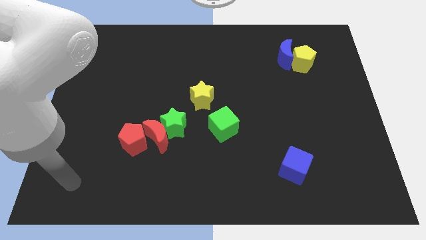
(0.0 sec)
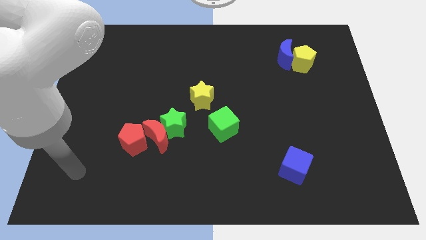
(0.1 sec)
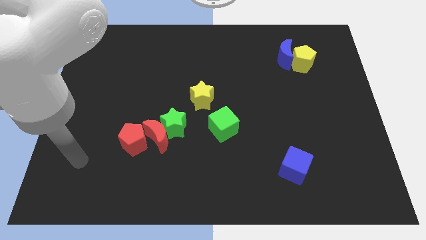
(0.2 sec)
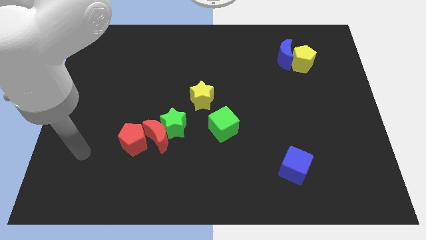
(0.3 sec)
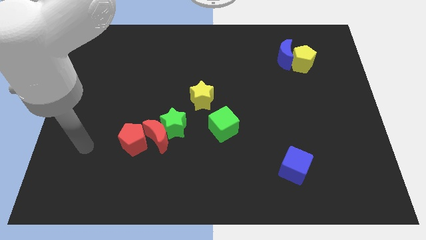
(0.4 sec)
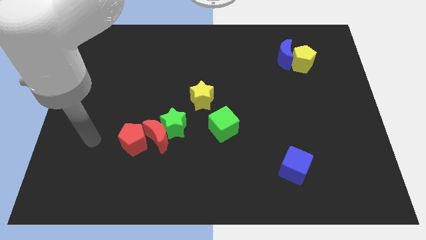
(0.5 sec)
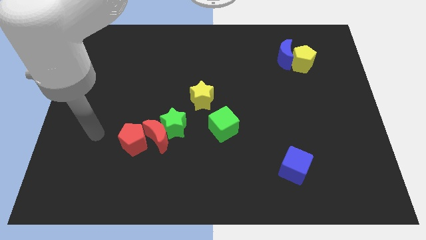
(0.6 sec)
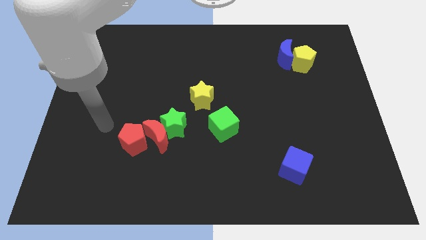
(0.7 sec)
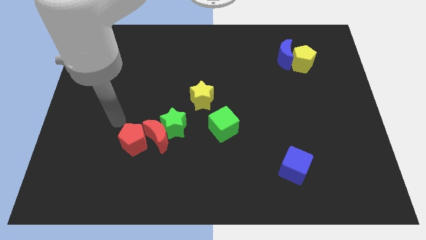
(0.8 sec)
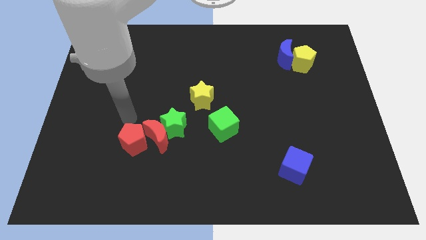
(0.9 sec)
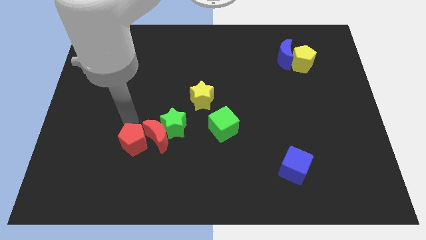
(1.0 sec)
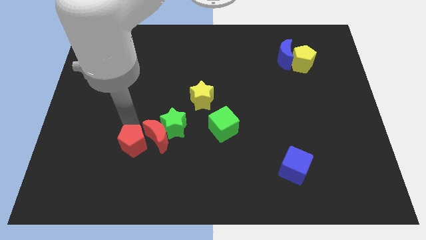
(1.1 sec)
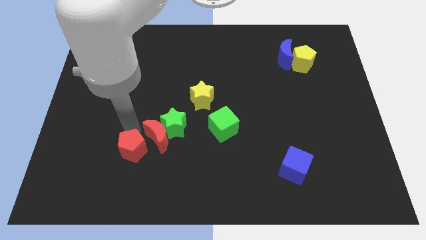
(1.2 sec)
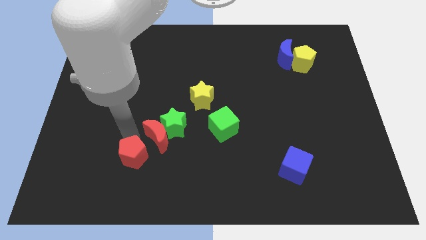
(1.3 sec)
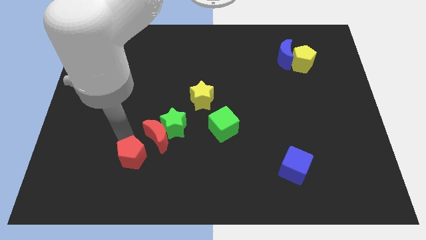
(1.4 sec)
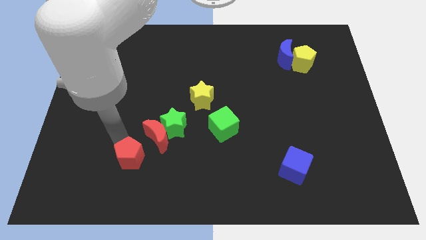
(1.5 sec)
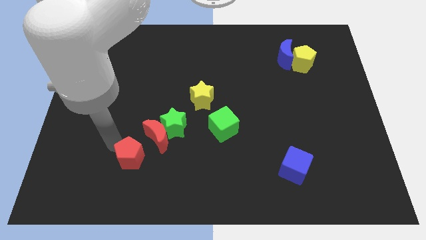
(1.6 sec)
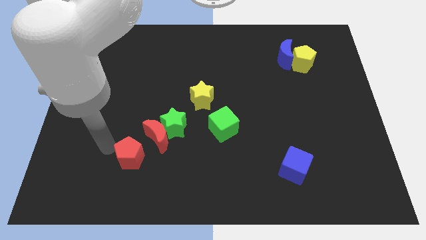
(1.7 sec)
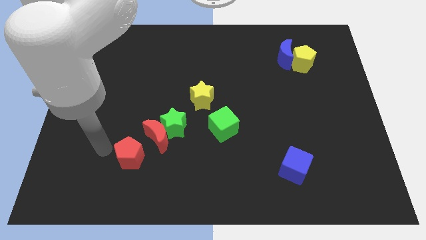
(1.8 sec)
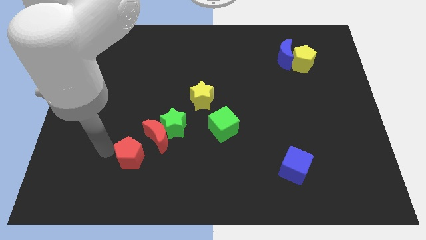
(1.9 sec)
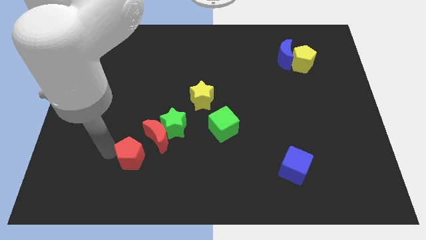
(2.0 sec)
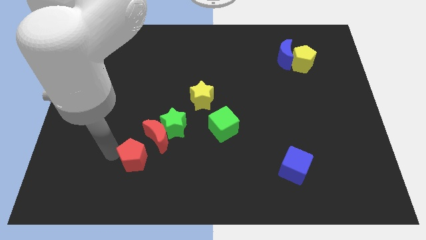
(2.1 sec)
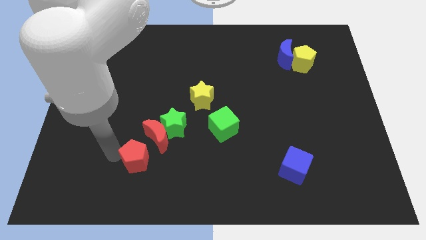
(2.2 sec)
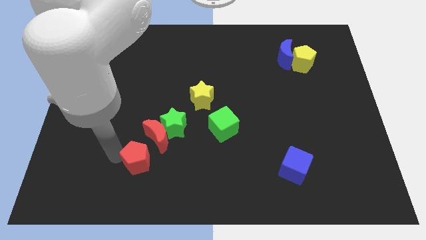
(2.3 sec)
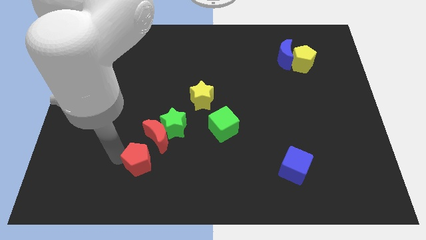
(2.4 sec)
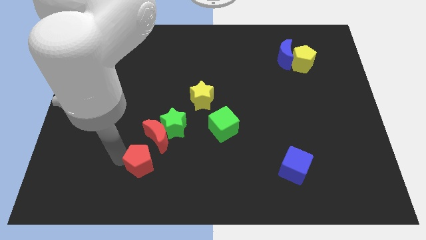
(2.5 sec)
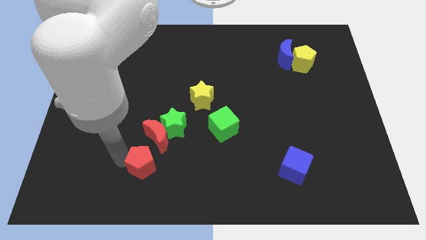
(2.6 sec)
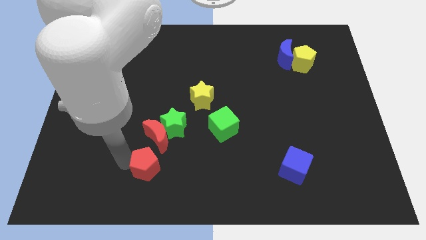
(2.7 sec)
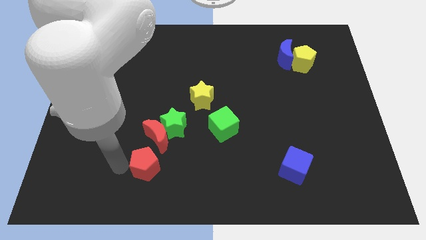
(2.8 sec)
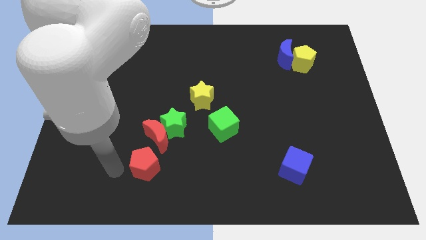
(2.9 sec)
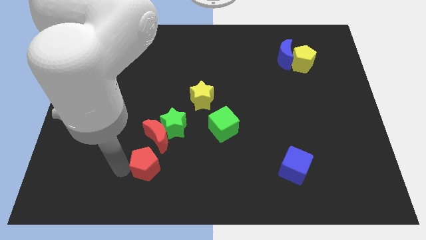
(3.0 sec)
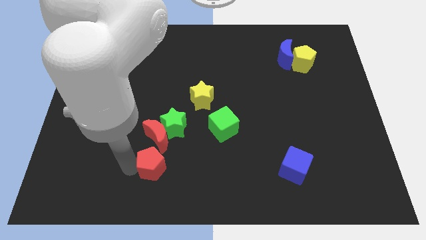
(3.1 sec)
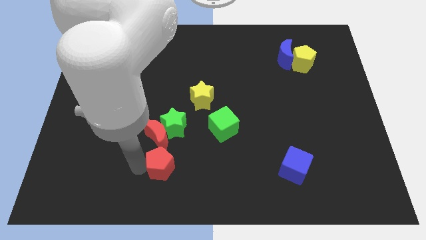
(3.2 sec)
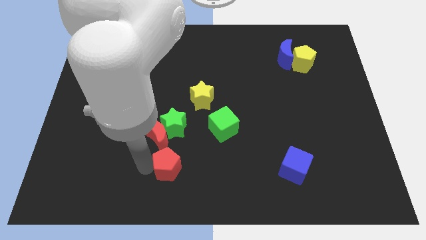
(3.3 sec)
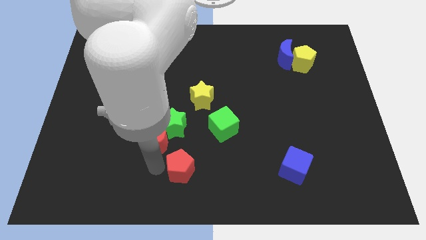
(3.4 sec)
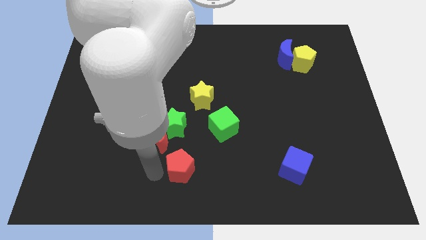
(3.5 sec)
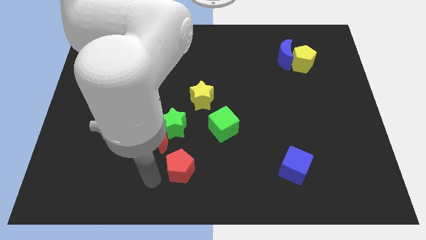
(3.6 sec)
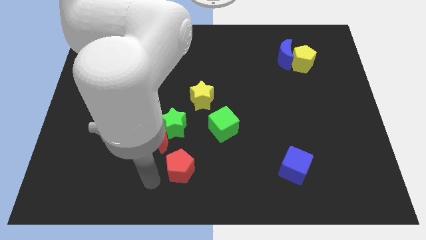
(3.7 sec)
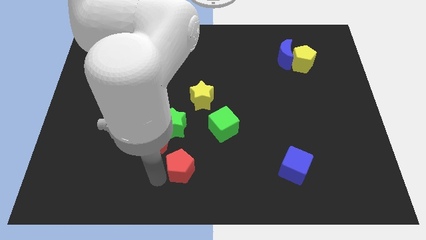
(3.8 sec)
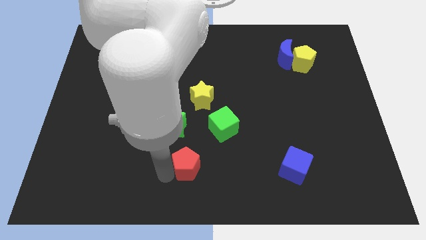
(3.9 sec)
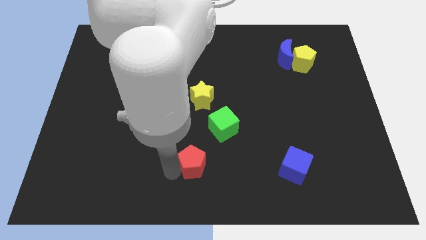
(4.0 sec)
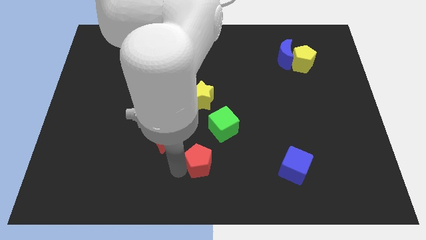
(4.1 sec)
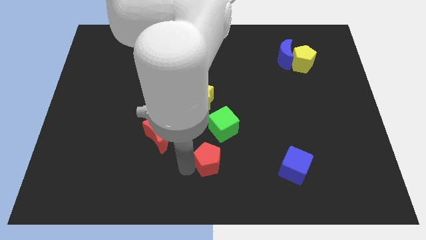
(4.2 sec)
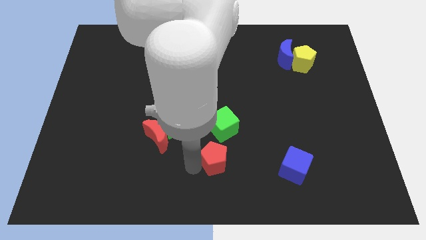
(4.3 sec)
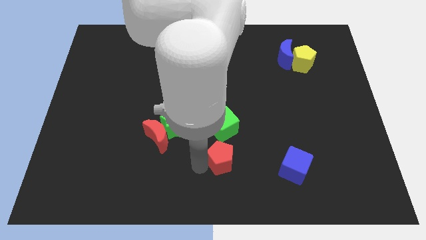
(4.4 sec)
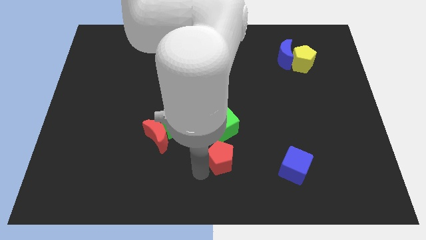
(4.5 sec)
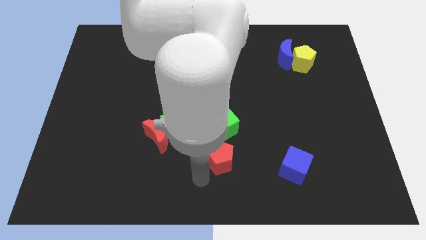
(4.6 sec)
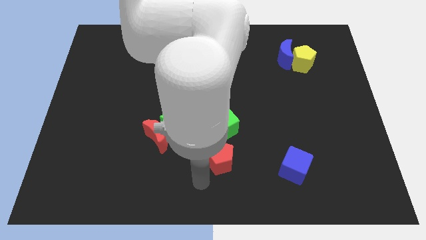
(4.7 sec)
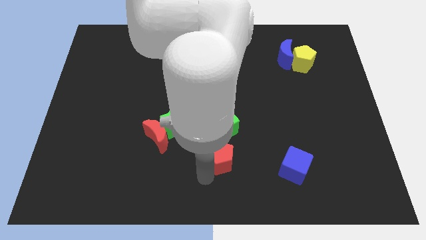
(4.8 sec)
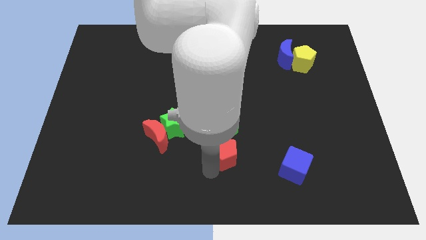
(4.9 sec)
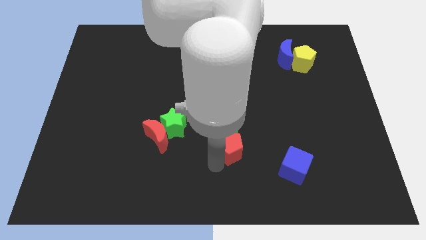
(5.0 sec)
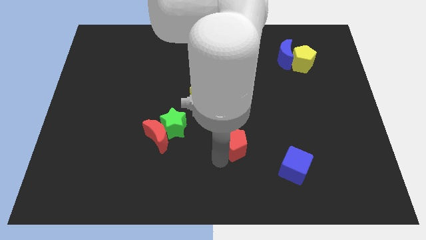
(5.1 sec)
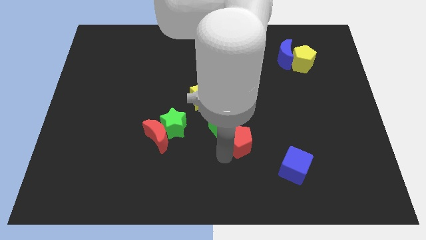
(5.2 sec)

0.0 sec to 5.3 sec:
move the red pentagon to the right side of the green cube

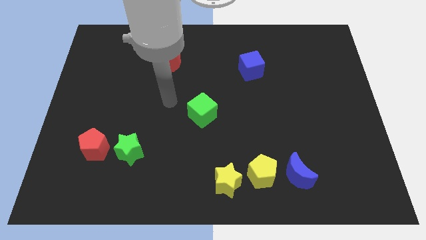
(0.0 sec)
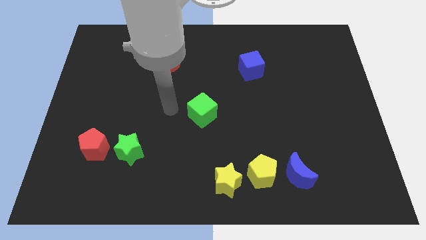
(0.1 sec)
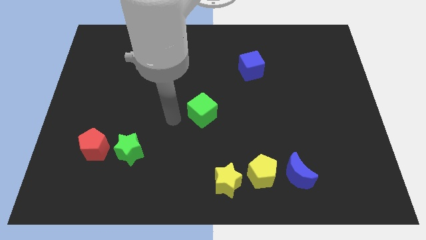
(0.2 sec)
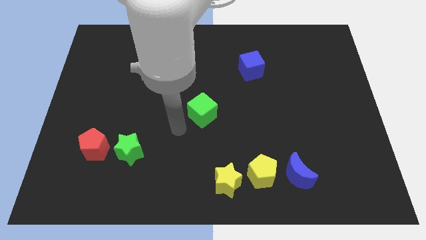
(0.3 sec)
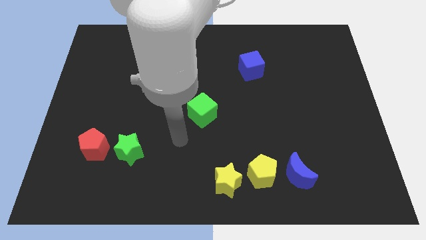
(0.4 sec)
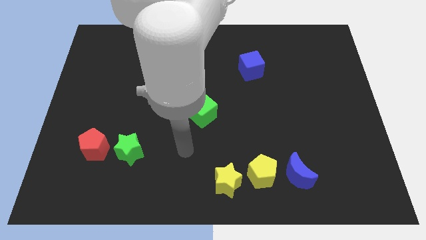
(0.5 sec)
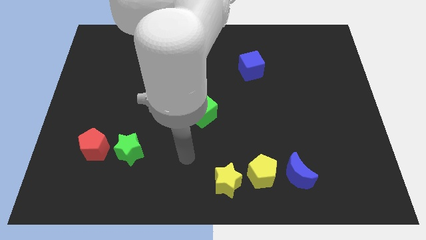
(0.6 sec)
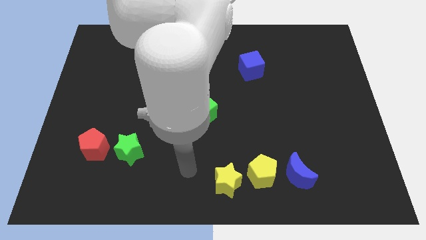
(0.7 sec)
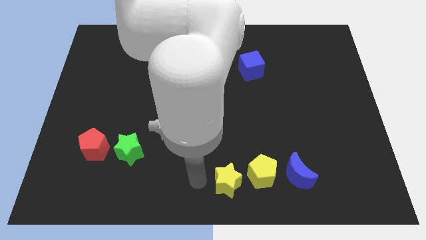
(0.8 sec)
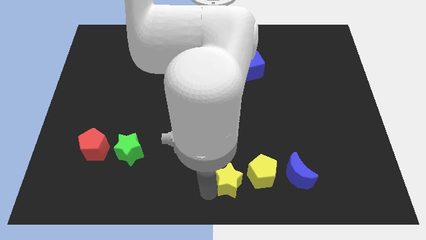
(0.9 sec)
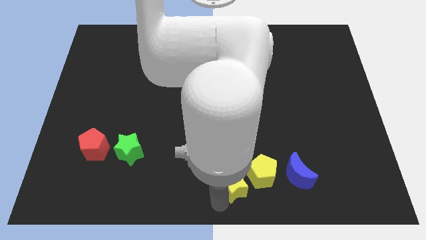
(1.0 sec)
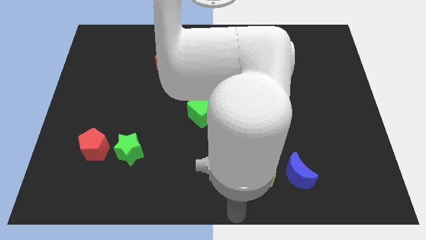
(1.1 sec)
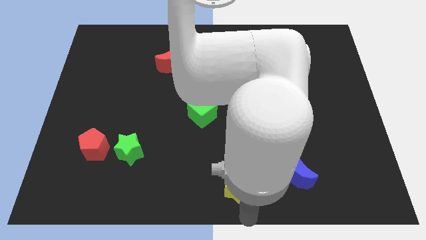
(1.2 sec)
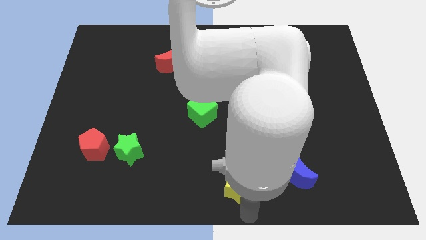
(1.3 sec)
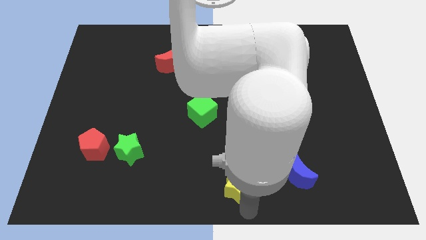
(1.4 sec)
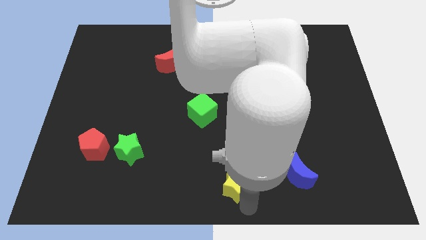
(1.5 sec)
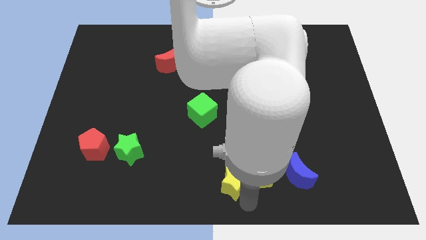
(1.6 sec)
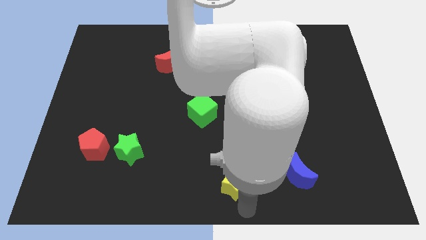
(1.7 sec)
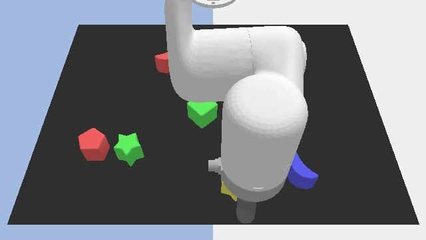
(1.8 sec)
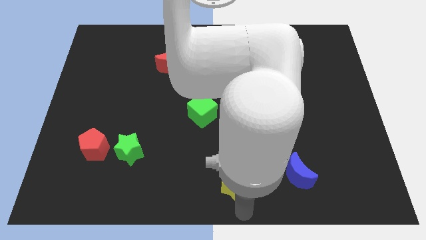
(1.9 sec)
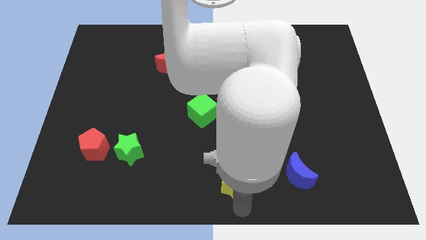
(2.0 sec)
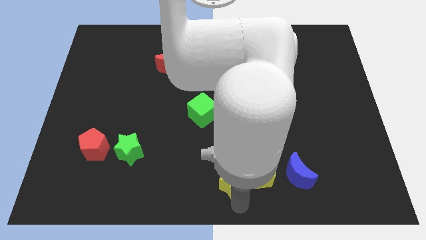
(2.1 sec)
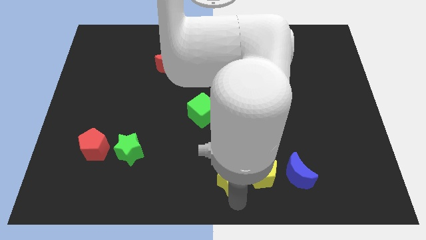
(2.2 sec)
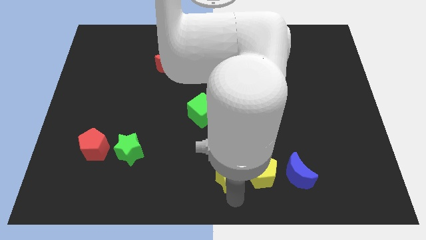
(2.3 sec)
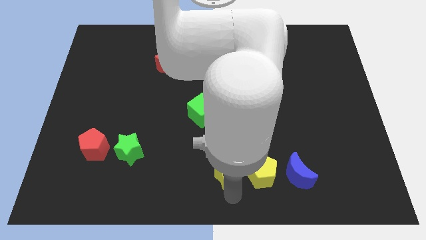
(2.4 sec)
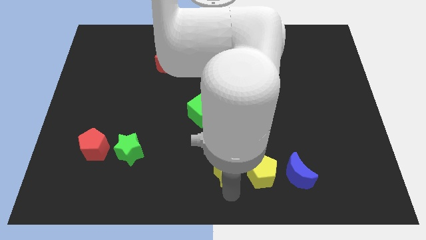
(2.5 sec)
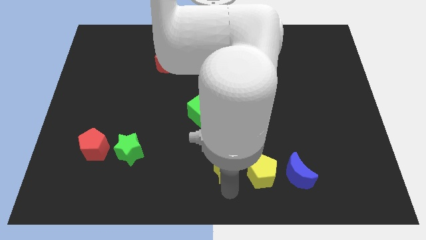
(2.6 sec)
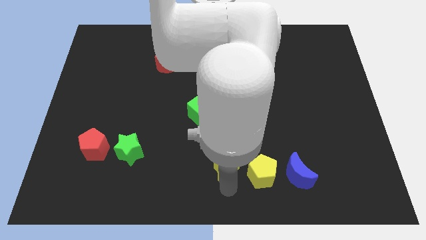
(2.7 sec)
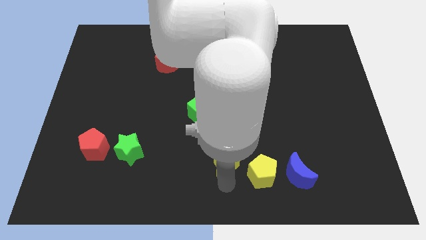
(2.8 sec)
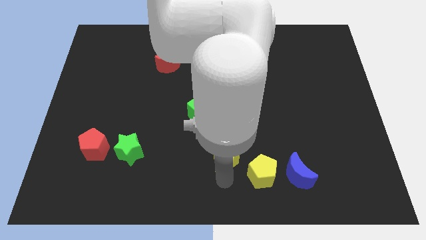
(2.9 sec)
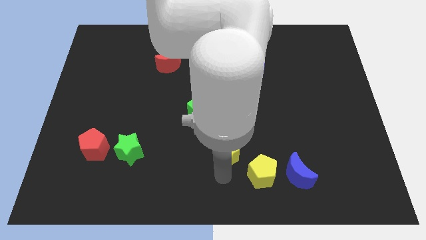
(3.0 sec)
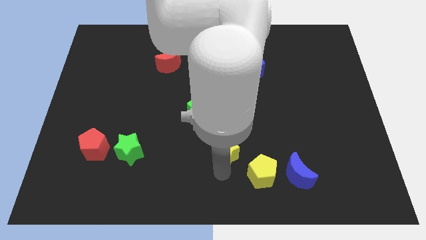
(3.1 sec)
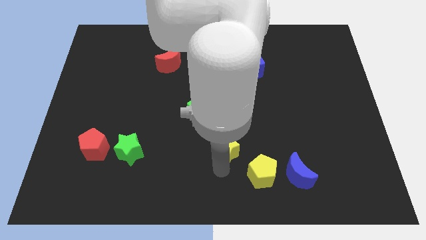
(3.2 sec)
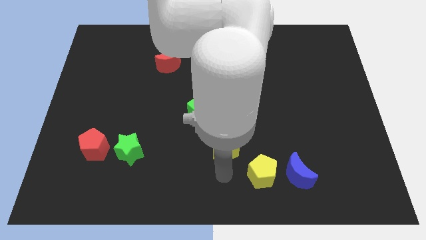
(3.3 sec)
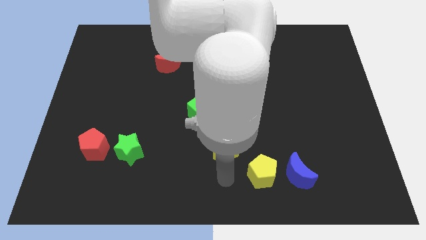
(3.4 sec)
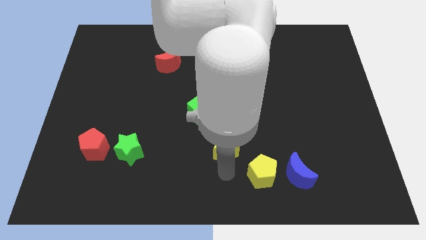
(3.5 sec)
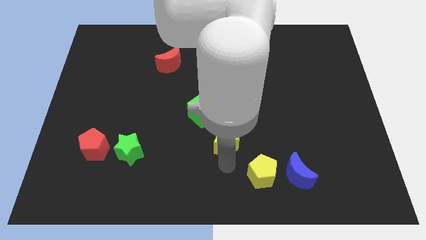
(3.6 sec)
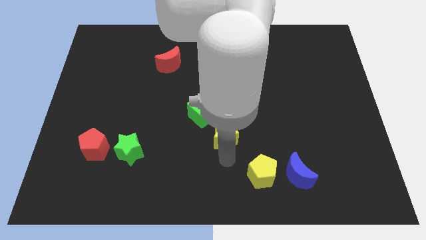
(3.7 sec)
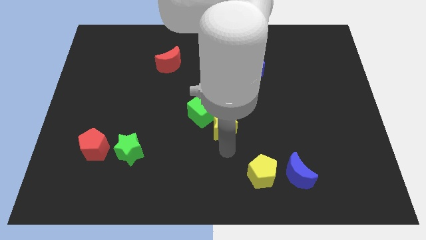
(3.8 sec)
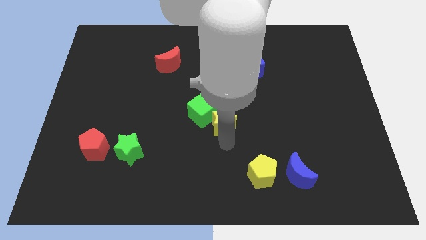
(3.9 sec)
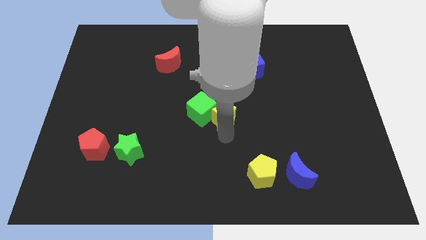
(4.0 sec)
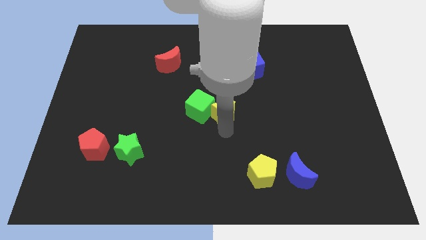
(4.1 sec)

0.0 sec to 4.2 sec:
slide the yellow star to the top right of the green cube
